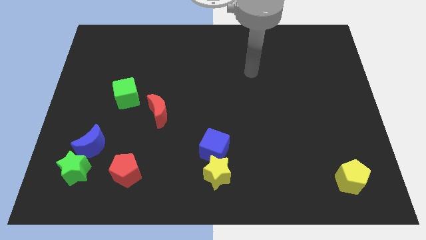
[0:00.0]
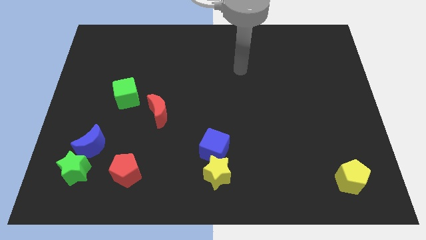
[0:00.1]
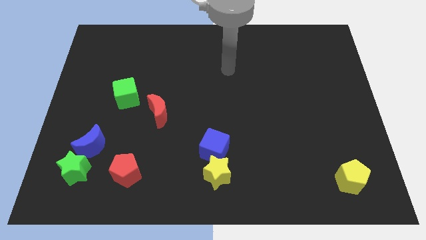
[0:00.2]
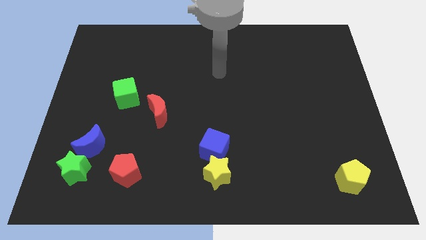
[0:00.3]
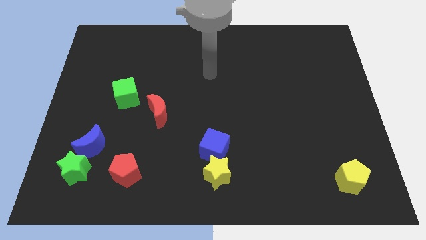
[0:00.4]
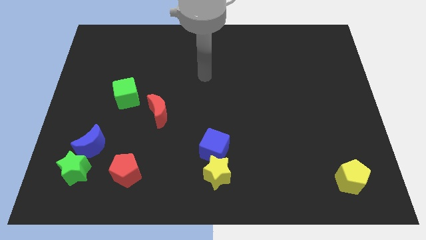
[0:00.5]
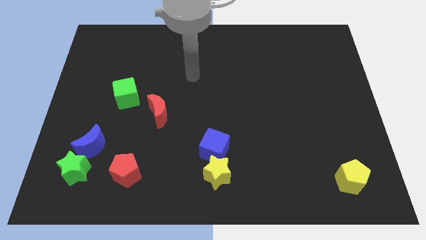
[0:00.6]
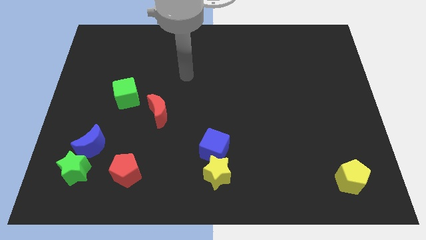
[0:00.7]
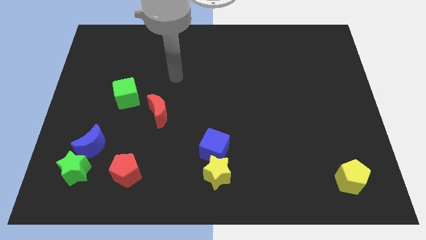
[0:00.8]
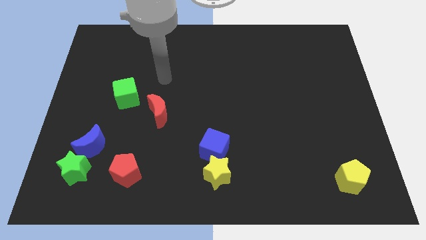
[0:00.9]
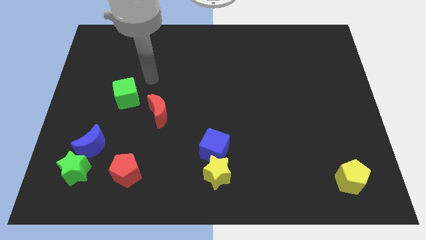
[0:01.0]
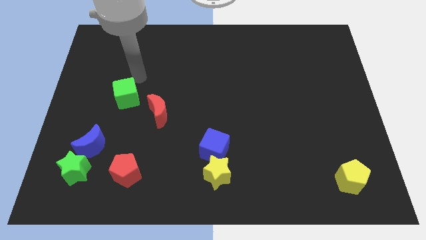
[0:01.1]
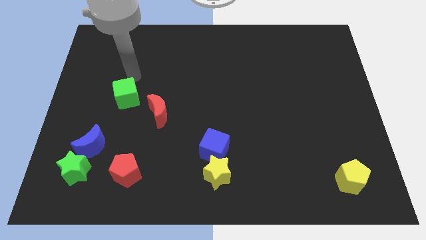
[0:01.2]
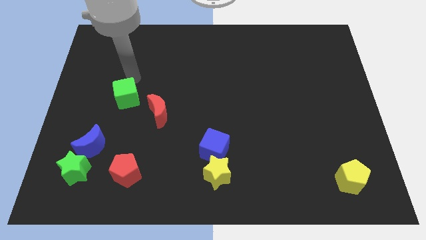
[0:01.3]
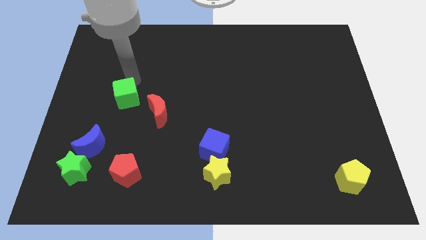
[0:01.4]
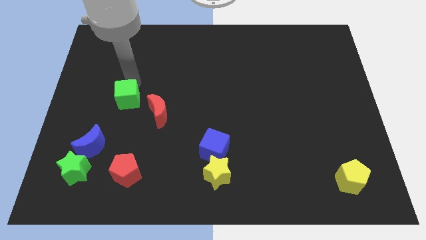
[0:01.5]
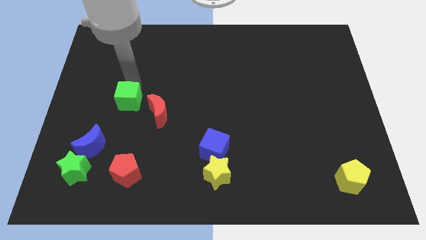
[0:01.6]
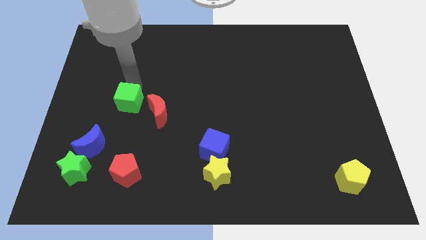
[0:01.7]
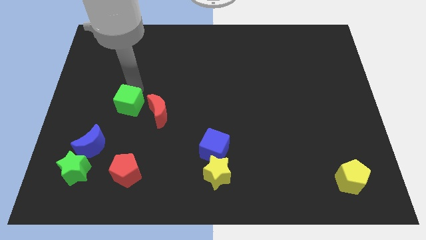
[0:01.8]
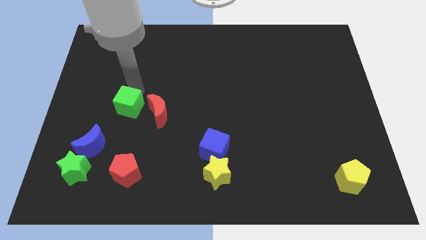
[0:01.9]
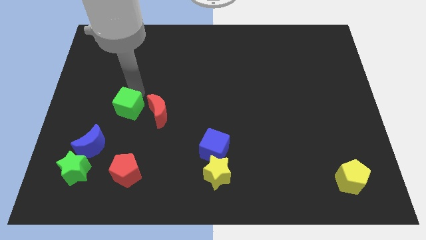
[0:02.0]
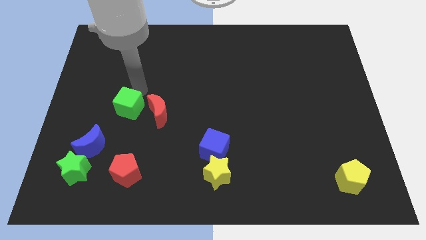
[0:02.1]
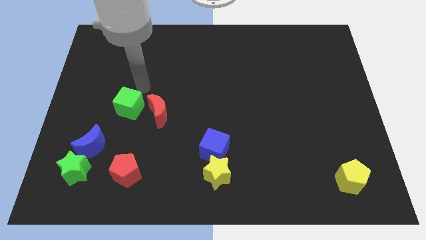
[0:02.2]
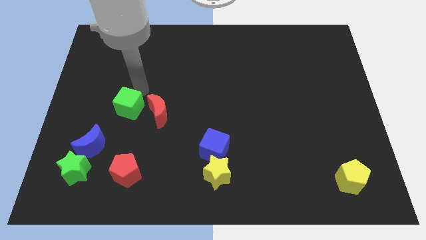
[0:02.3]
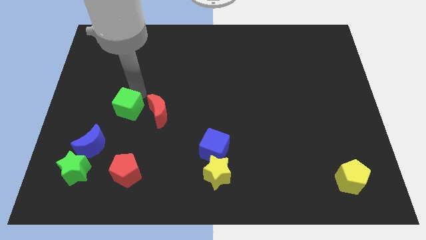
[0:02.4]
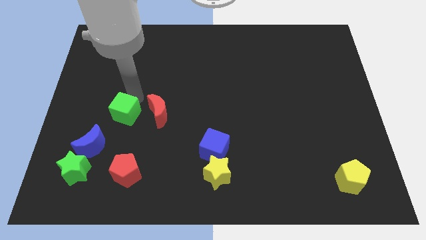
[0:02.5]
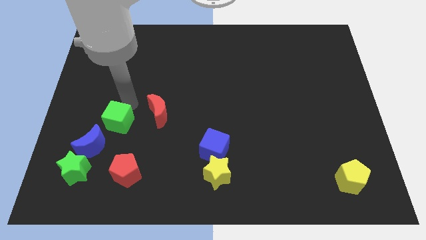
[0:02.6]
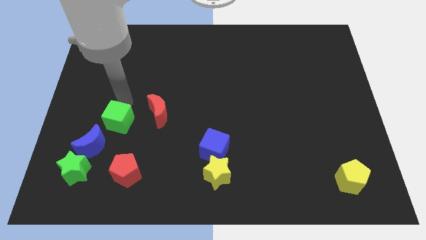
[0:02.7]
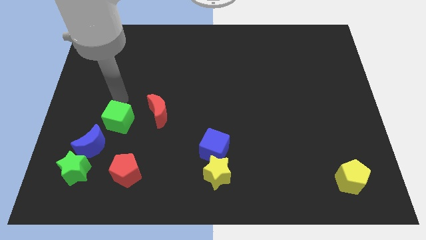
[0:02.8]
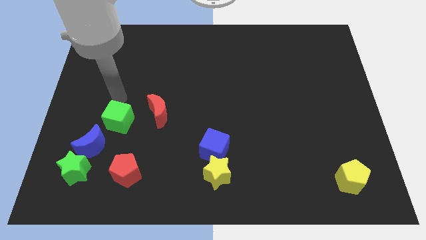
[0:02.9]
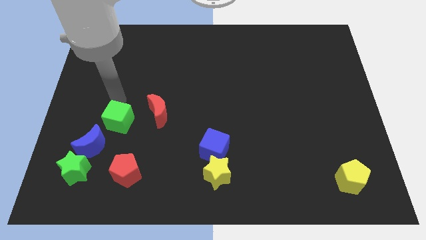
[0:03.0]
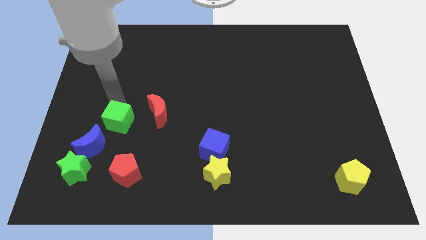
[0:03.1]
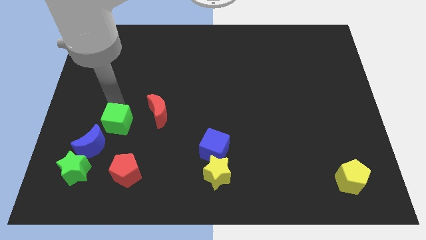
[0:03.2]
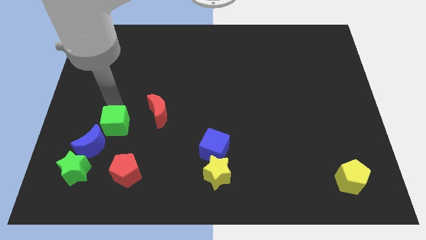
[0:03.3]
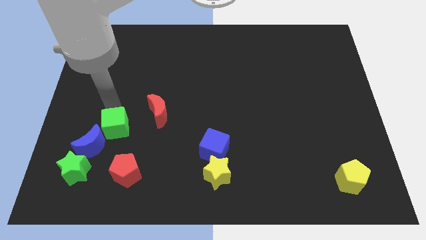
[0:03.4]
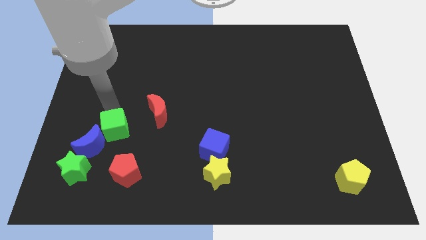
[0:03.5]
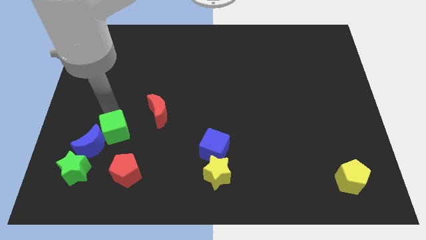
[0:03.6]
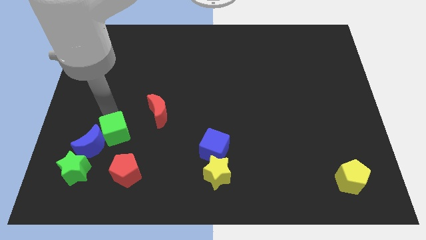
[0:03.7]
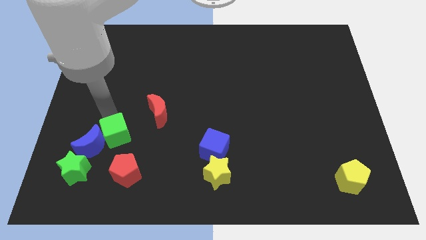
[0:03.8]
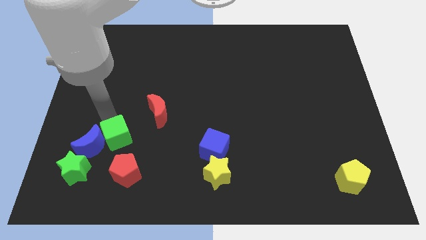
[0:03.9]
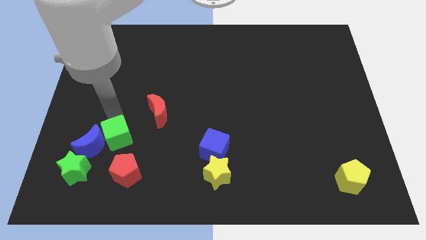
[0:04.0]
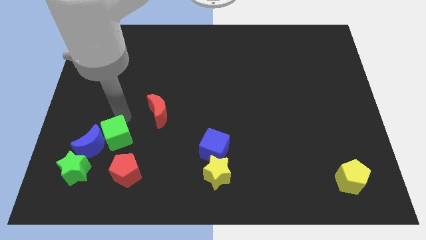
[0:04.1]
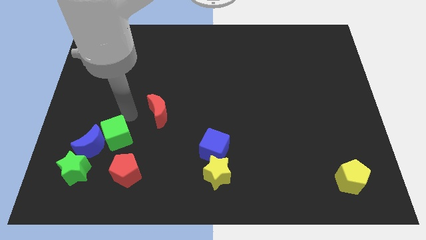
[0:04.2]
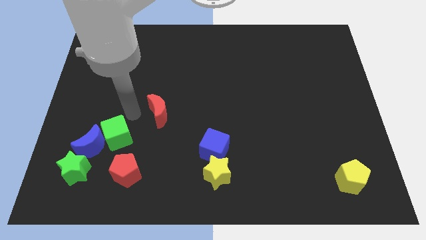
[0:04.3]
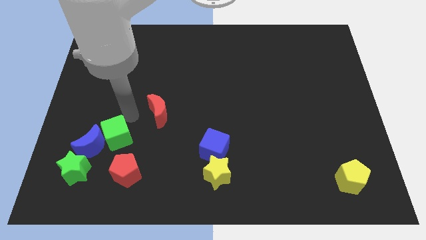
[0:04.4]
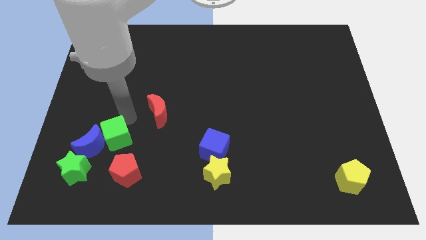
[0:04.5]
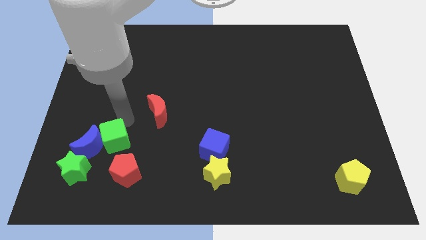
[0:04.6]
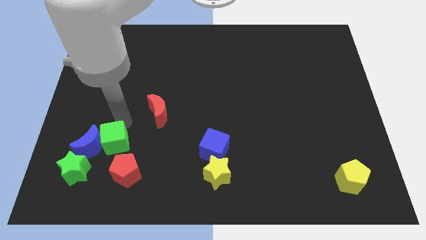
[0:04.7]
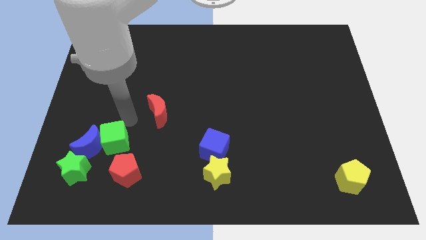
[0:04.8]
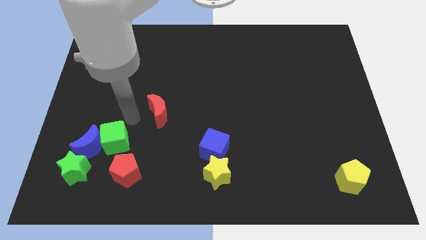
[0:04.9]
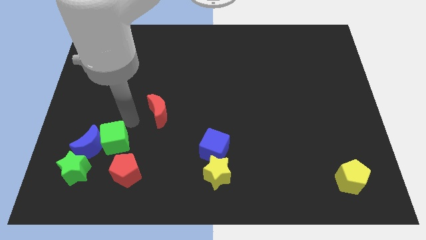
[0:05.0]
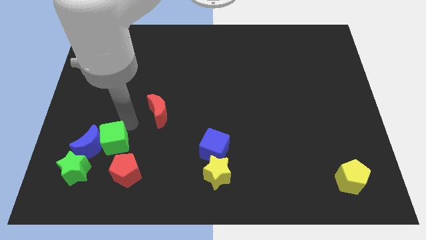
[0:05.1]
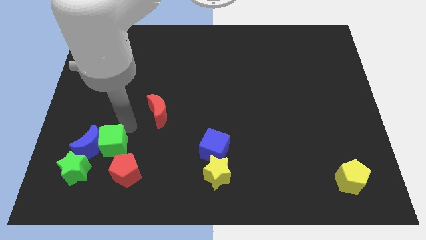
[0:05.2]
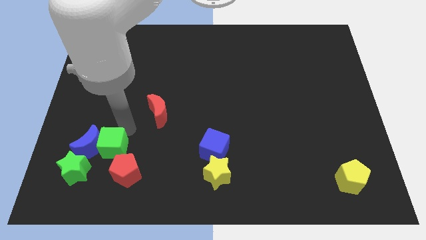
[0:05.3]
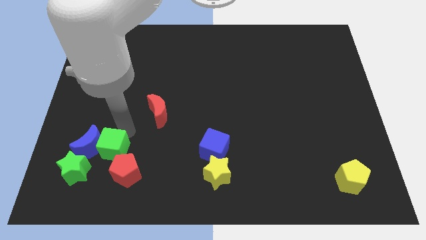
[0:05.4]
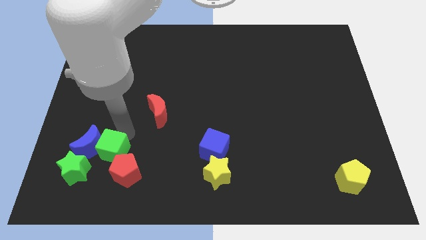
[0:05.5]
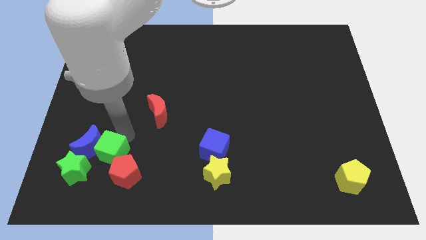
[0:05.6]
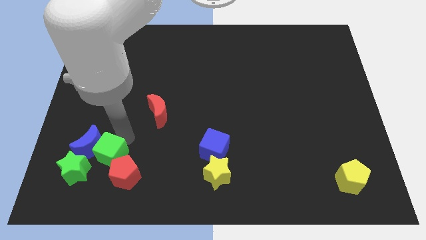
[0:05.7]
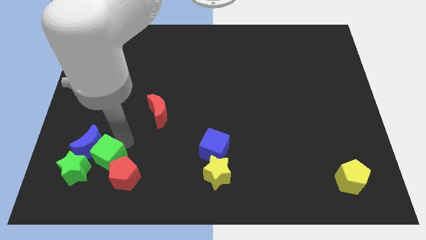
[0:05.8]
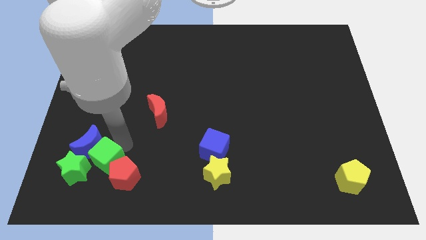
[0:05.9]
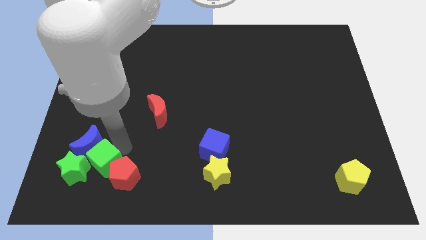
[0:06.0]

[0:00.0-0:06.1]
slide the green cube to the green star
